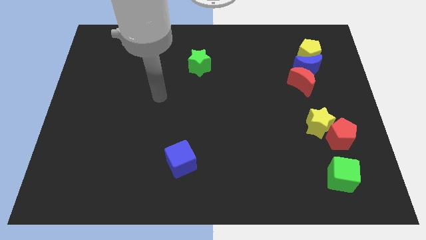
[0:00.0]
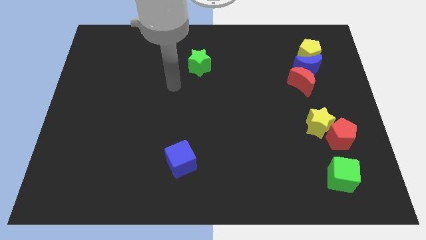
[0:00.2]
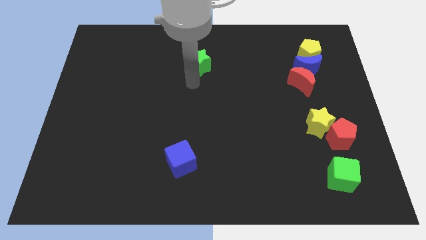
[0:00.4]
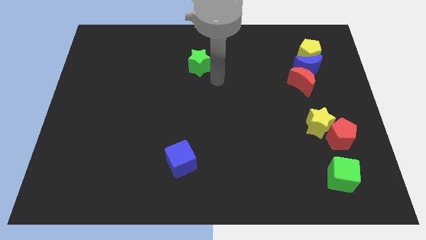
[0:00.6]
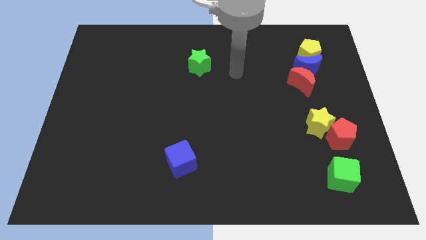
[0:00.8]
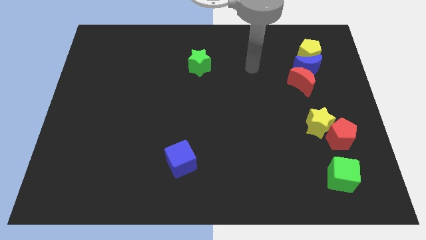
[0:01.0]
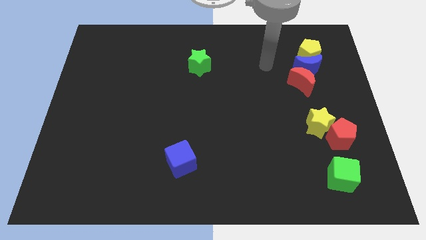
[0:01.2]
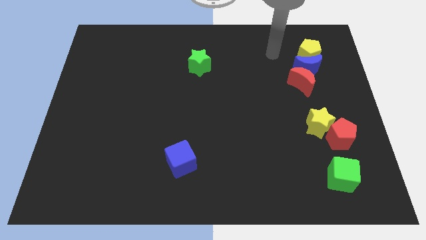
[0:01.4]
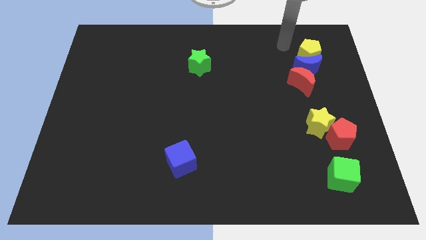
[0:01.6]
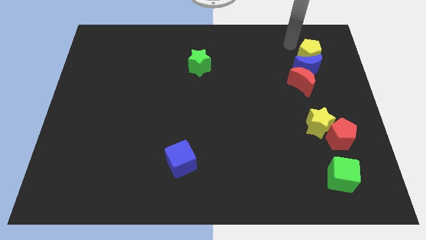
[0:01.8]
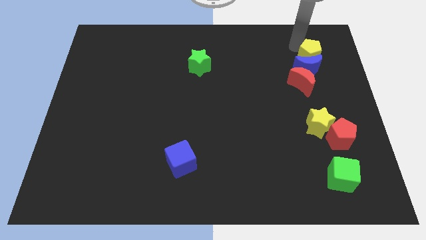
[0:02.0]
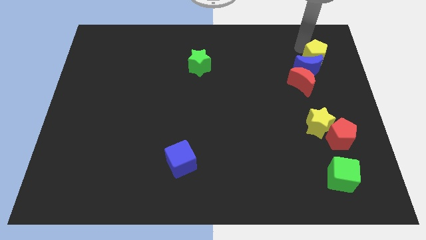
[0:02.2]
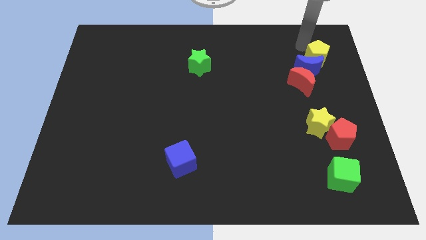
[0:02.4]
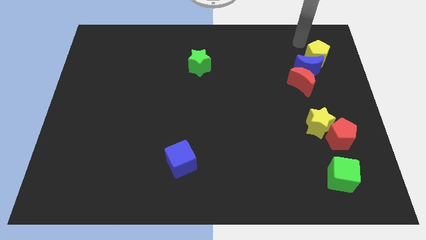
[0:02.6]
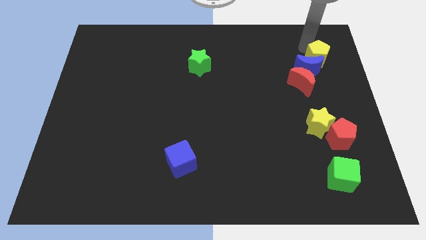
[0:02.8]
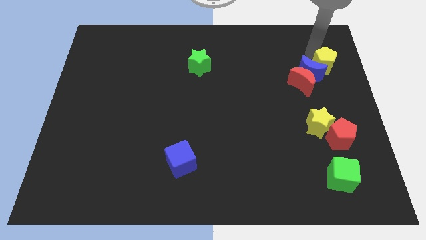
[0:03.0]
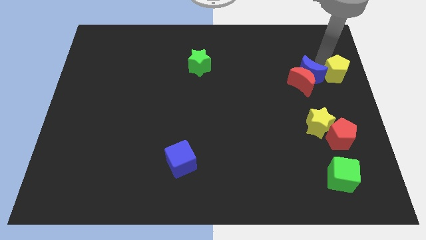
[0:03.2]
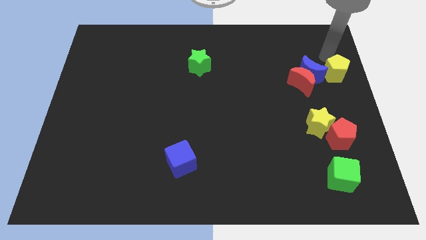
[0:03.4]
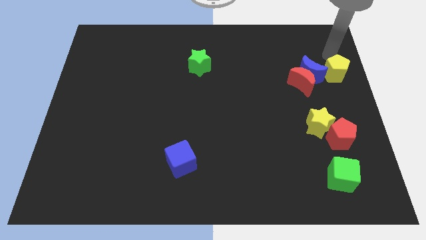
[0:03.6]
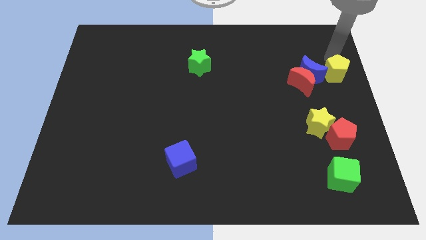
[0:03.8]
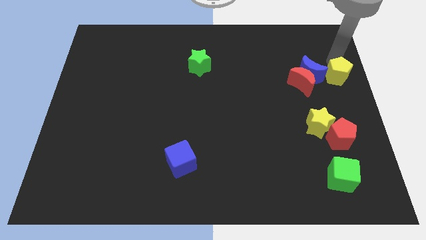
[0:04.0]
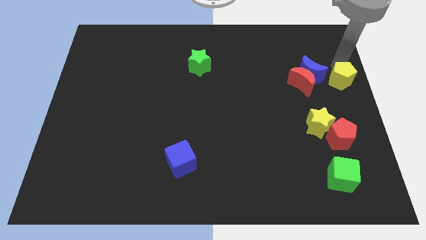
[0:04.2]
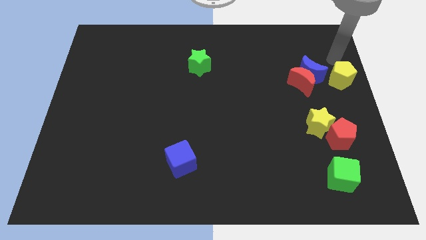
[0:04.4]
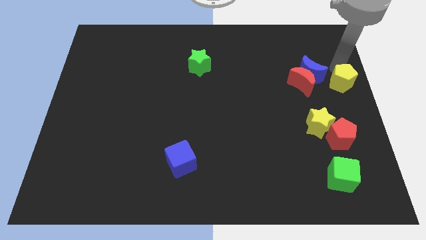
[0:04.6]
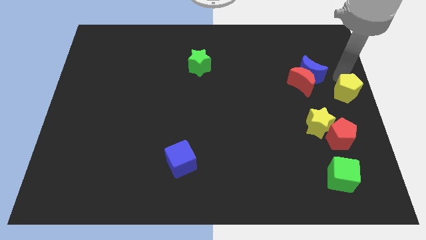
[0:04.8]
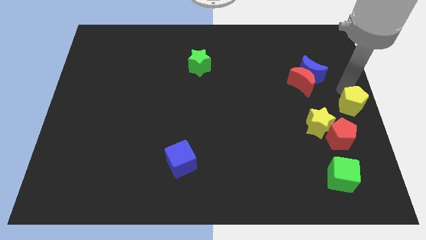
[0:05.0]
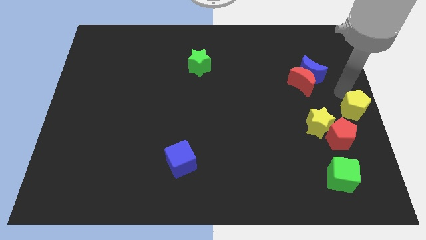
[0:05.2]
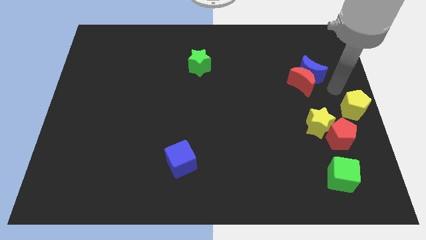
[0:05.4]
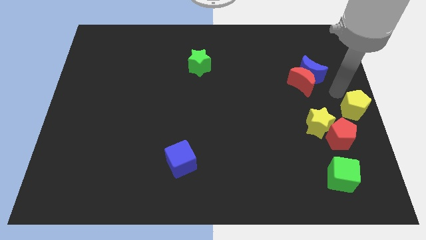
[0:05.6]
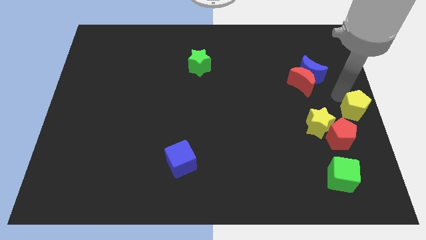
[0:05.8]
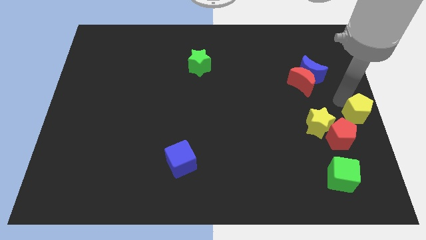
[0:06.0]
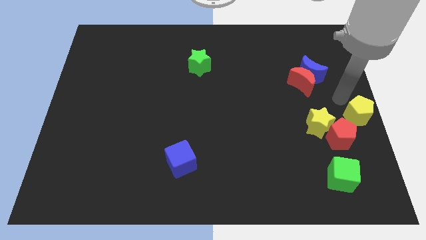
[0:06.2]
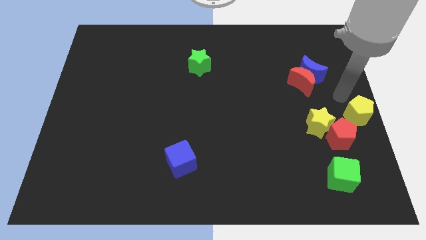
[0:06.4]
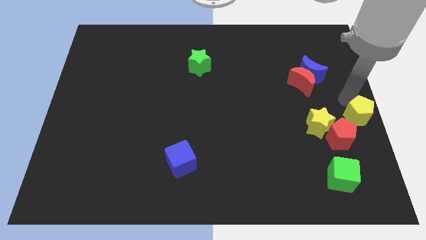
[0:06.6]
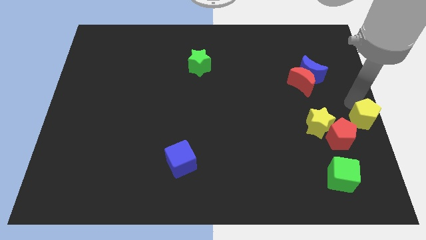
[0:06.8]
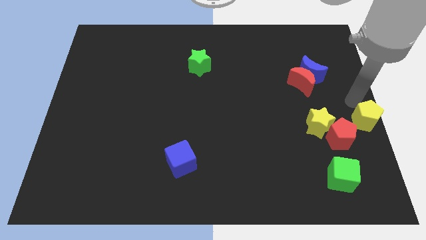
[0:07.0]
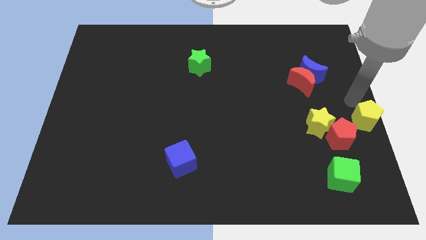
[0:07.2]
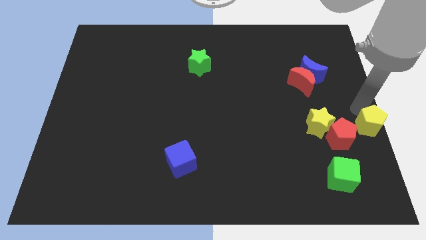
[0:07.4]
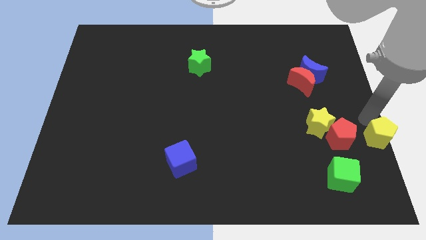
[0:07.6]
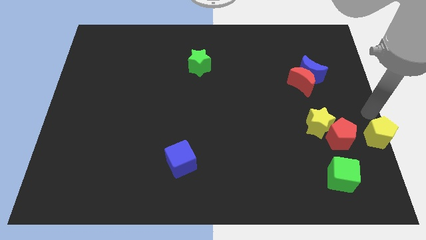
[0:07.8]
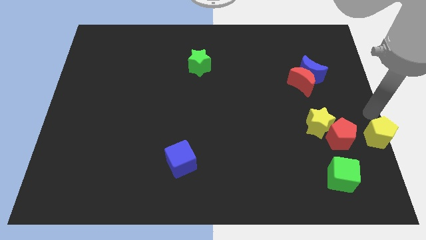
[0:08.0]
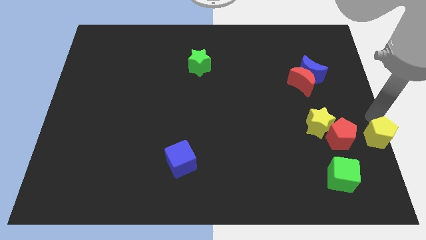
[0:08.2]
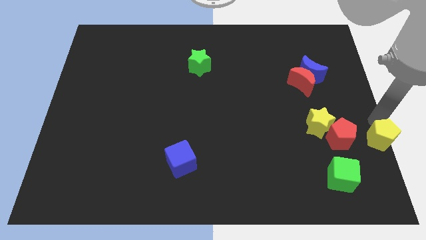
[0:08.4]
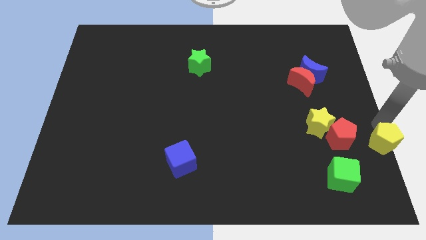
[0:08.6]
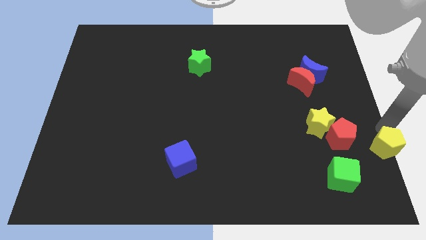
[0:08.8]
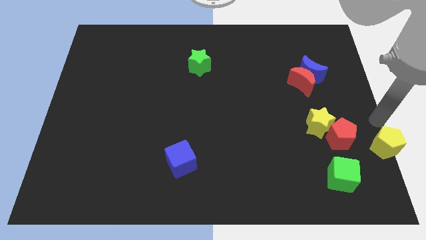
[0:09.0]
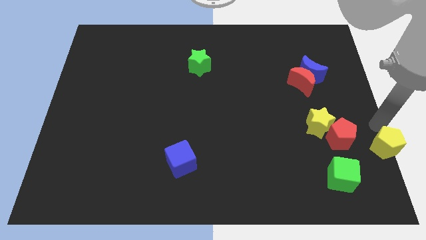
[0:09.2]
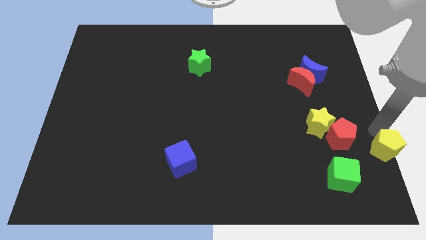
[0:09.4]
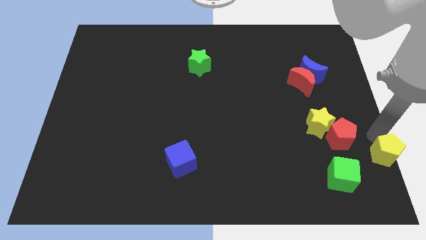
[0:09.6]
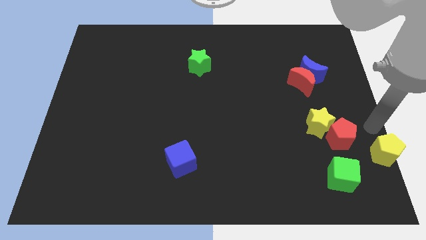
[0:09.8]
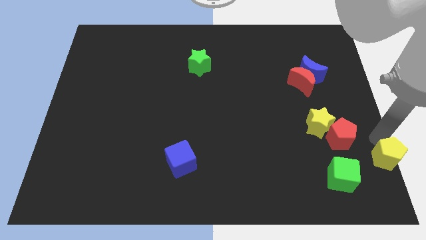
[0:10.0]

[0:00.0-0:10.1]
slide the yellow pentagon to the lower right corner

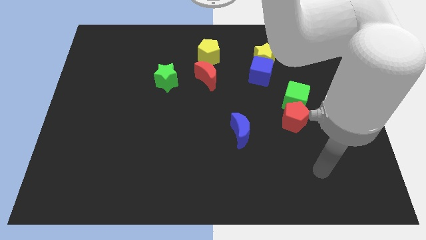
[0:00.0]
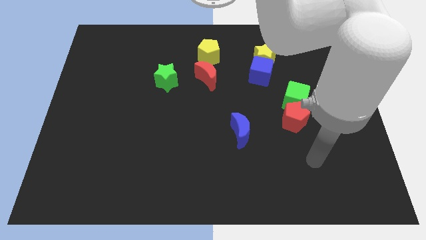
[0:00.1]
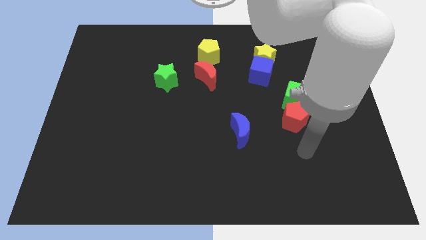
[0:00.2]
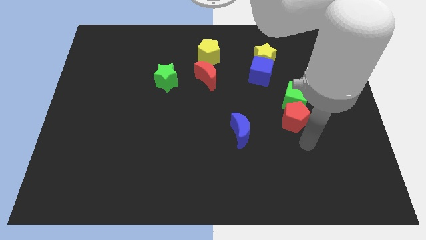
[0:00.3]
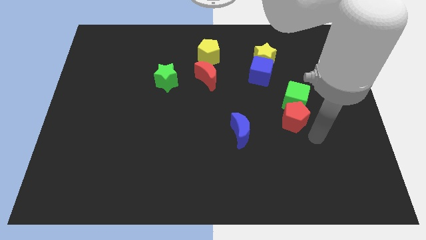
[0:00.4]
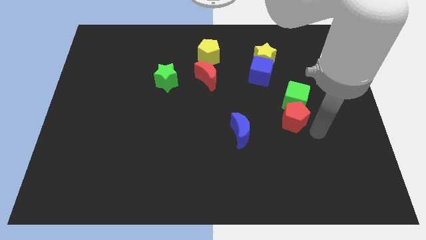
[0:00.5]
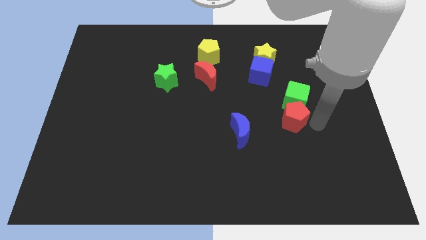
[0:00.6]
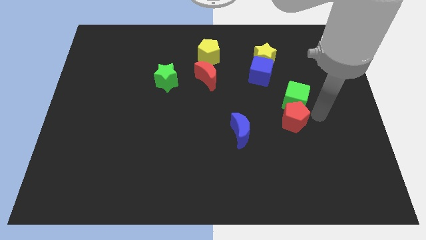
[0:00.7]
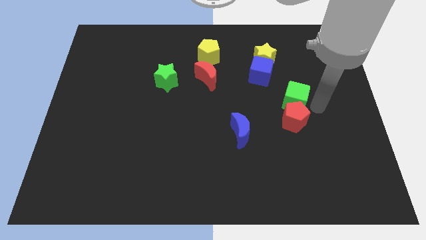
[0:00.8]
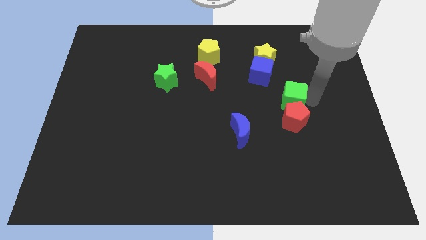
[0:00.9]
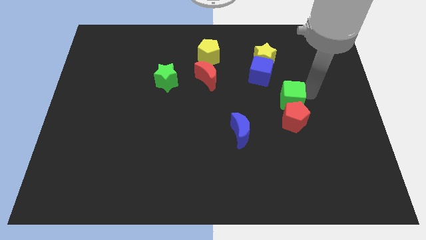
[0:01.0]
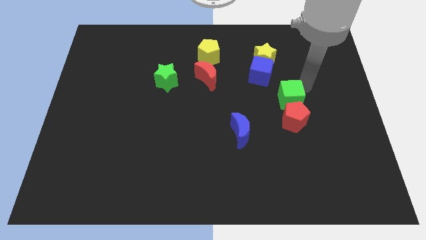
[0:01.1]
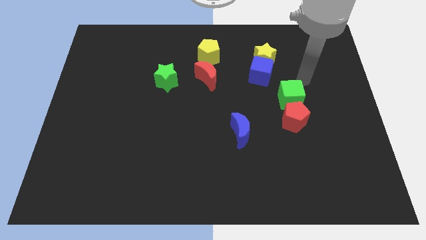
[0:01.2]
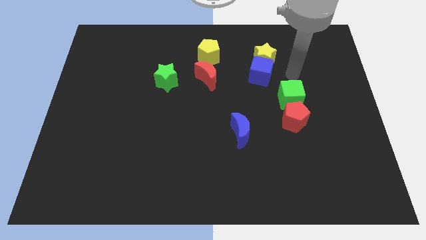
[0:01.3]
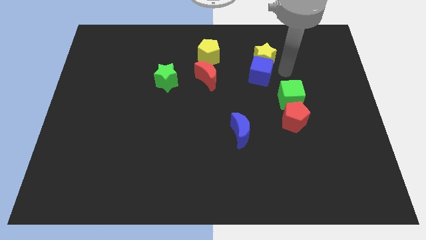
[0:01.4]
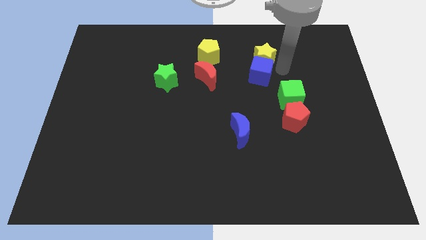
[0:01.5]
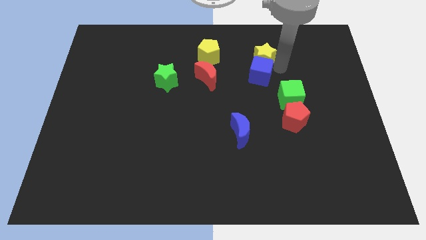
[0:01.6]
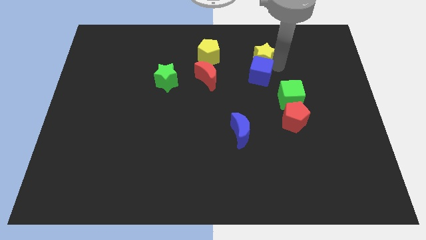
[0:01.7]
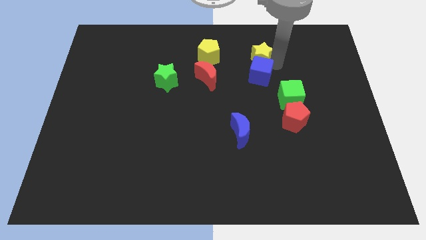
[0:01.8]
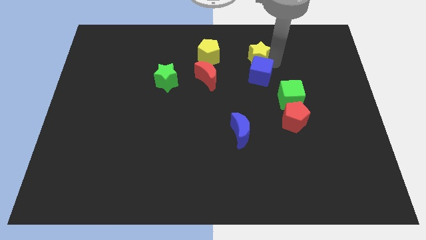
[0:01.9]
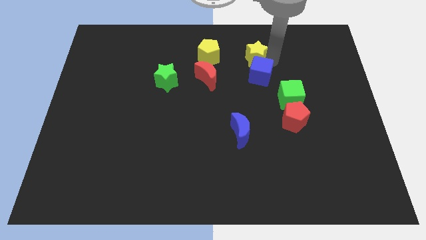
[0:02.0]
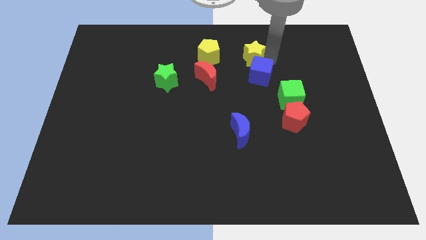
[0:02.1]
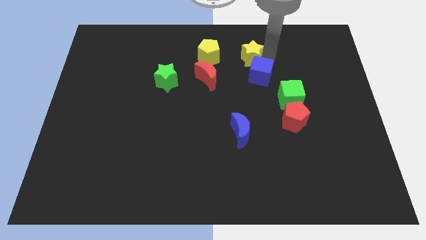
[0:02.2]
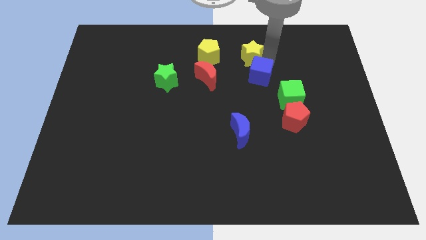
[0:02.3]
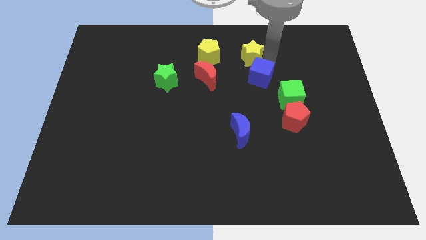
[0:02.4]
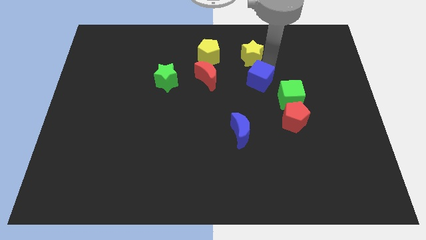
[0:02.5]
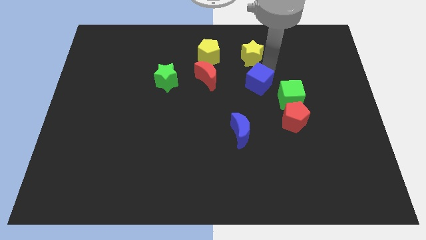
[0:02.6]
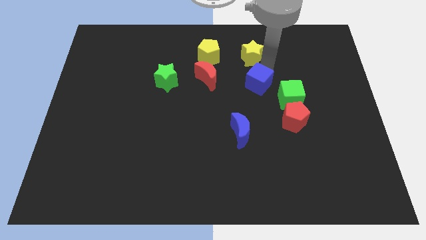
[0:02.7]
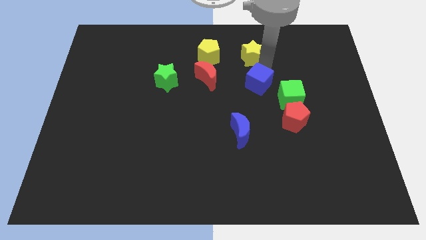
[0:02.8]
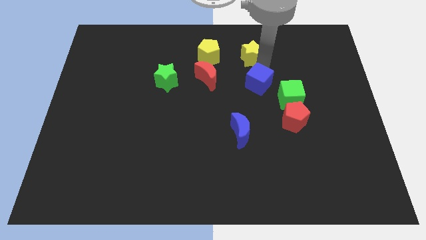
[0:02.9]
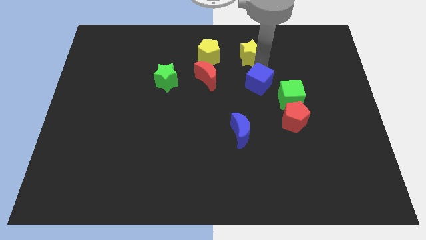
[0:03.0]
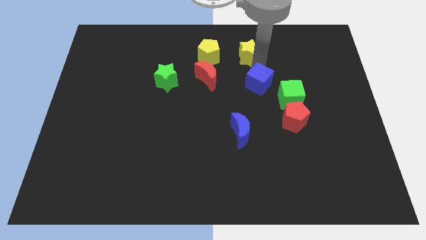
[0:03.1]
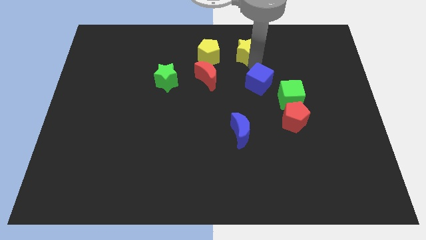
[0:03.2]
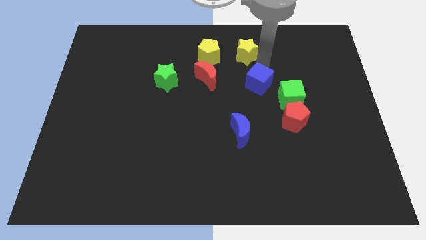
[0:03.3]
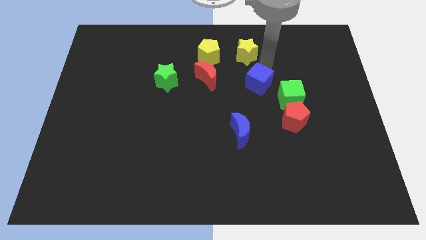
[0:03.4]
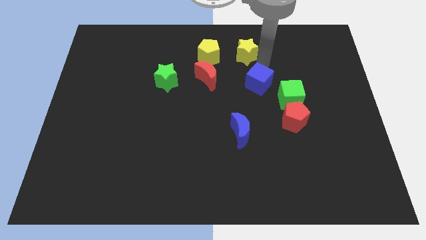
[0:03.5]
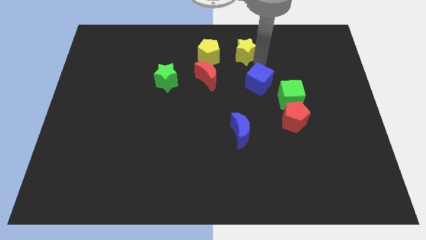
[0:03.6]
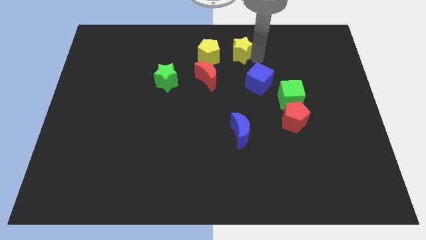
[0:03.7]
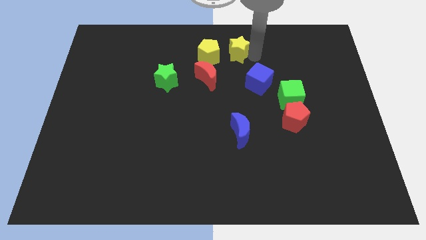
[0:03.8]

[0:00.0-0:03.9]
push the yellow star to the top
